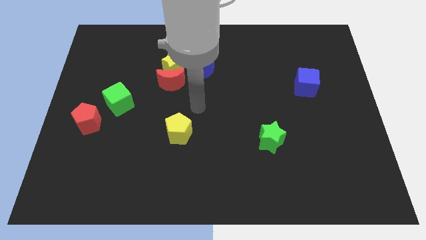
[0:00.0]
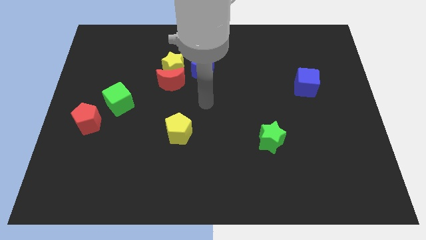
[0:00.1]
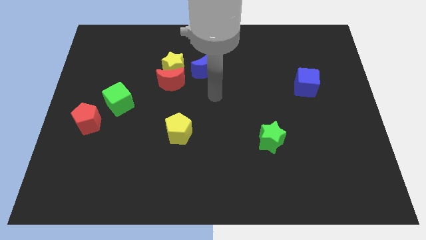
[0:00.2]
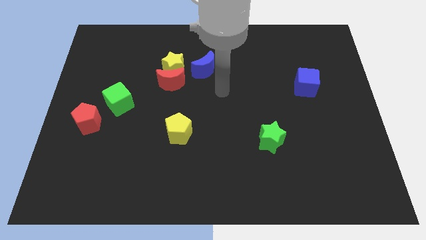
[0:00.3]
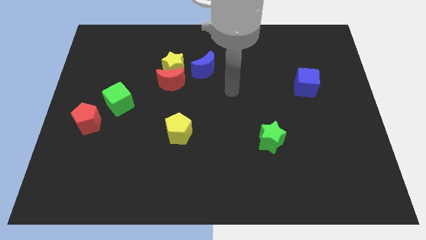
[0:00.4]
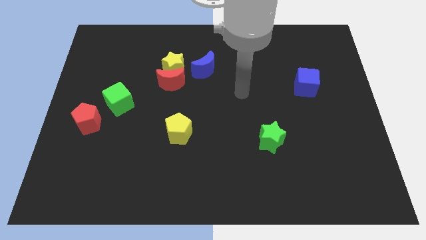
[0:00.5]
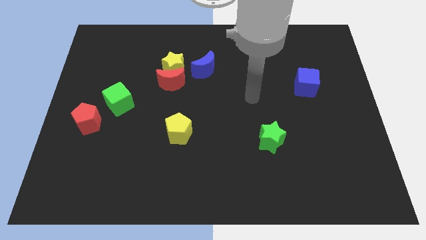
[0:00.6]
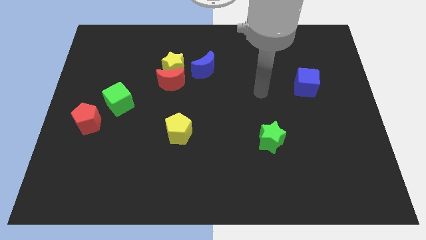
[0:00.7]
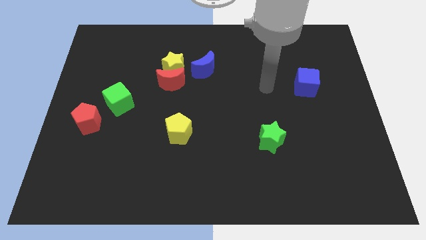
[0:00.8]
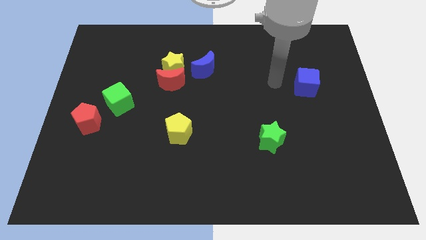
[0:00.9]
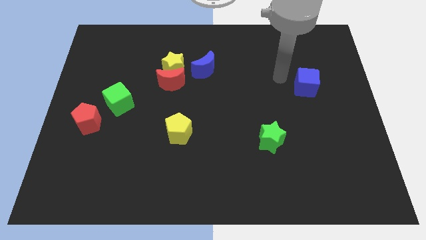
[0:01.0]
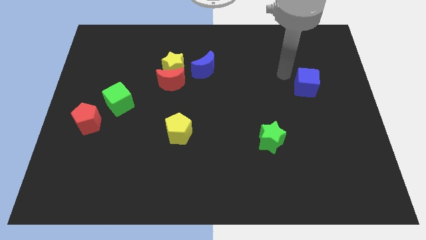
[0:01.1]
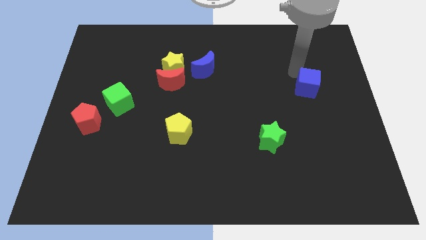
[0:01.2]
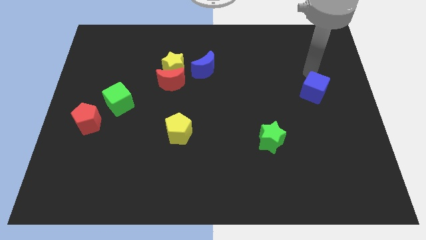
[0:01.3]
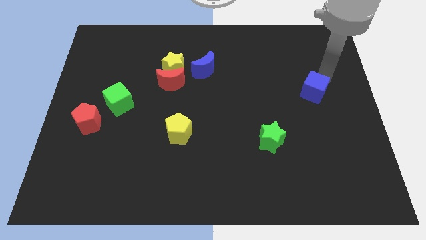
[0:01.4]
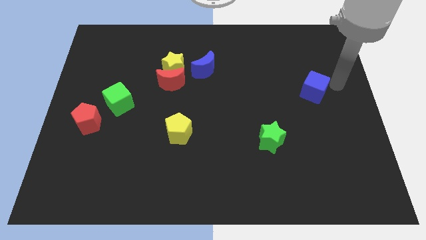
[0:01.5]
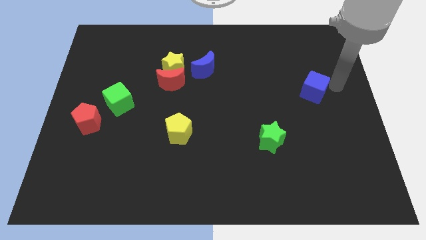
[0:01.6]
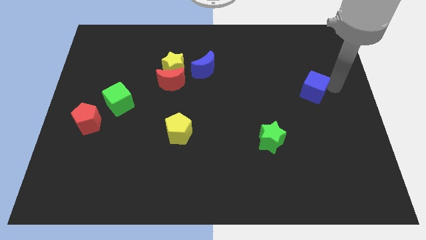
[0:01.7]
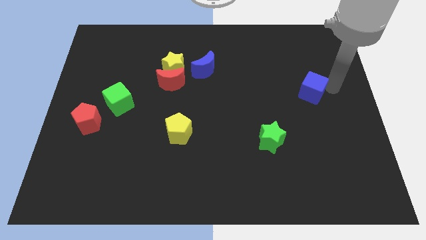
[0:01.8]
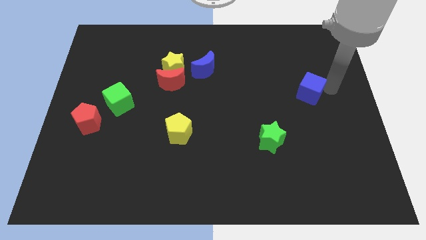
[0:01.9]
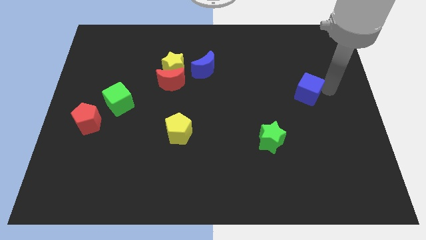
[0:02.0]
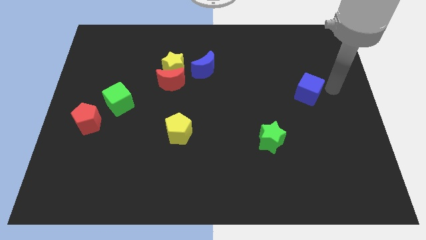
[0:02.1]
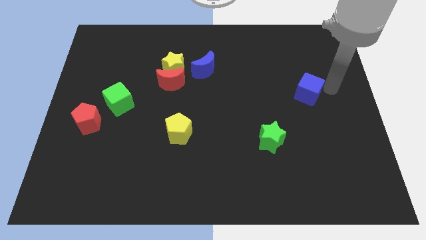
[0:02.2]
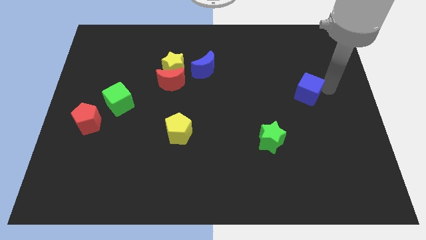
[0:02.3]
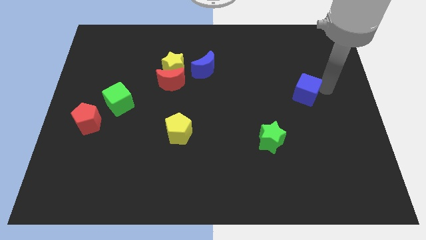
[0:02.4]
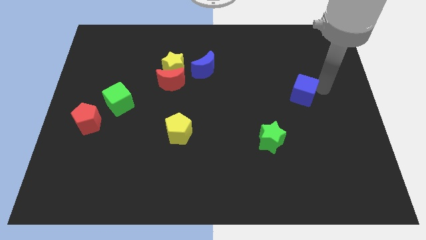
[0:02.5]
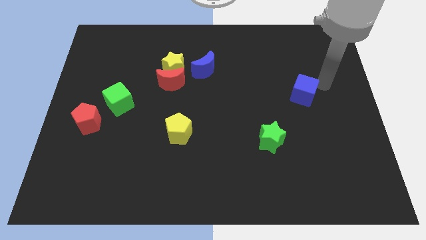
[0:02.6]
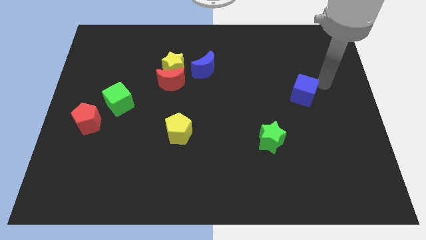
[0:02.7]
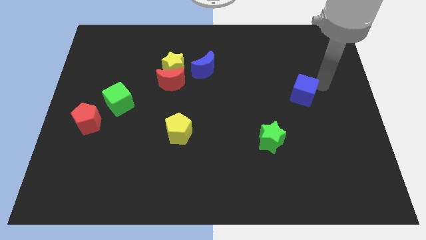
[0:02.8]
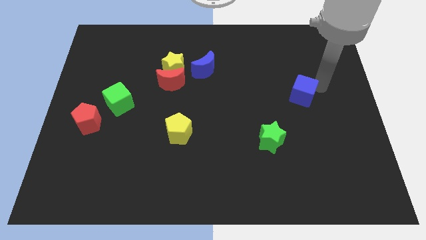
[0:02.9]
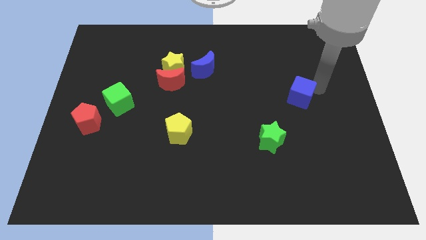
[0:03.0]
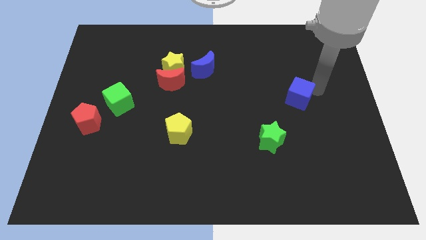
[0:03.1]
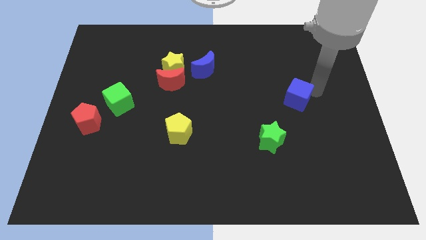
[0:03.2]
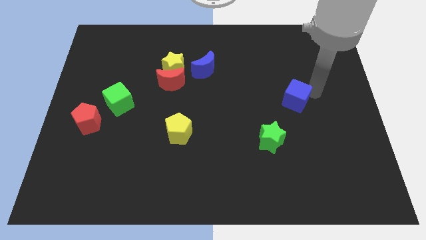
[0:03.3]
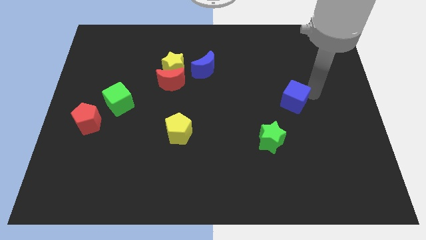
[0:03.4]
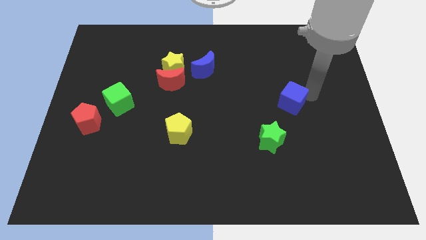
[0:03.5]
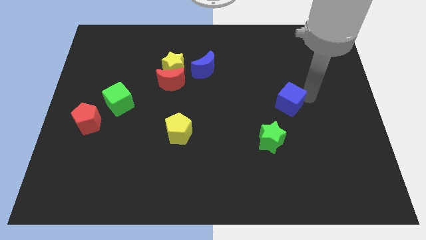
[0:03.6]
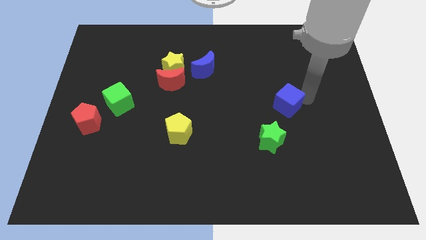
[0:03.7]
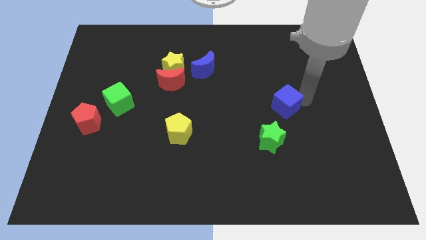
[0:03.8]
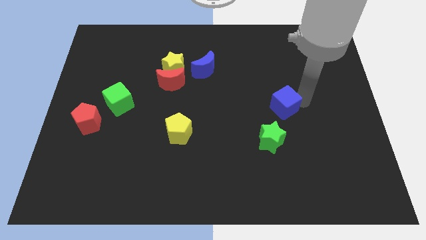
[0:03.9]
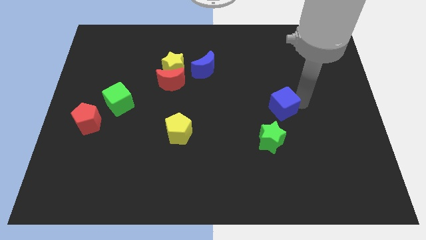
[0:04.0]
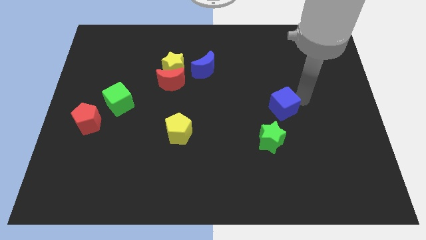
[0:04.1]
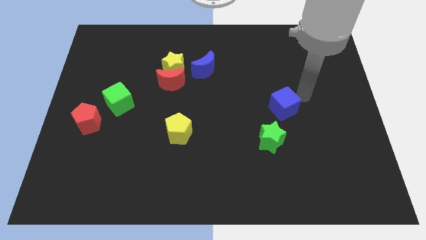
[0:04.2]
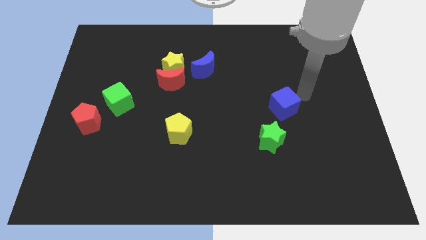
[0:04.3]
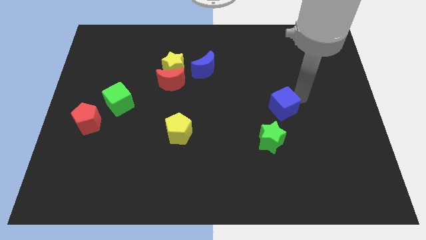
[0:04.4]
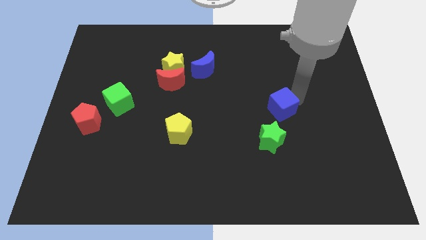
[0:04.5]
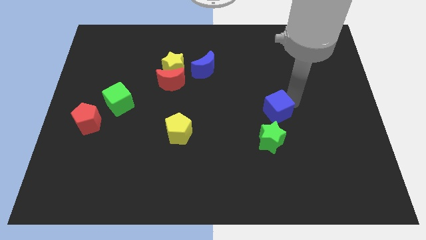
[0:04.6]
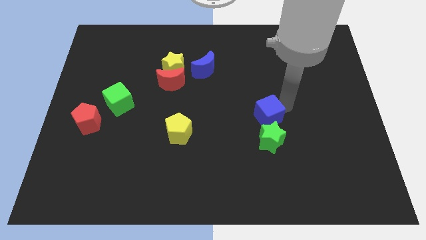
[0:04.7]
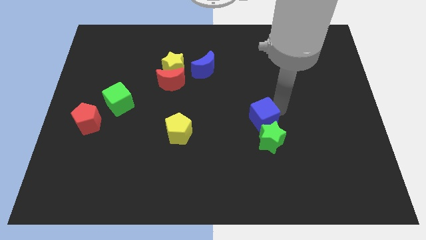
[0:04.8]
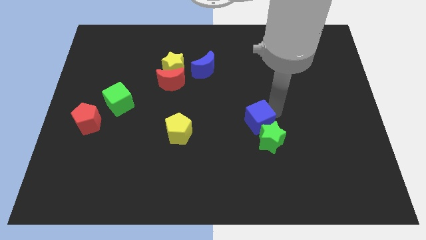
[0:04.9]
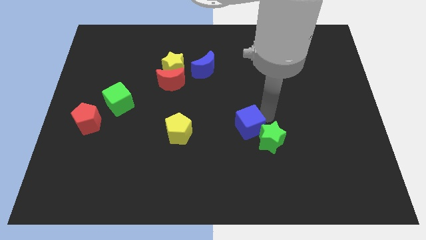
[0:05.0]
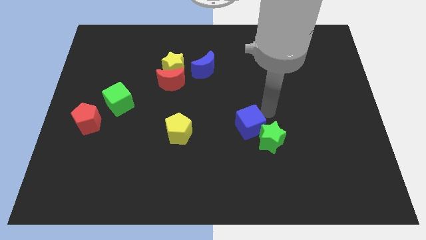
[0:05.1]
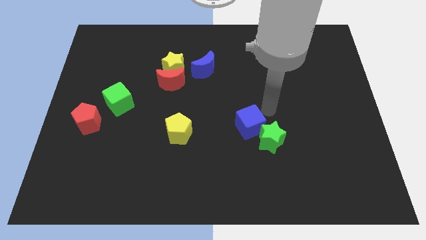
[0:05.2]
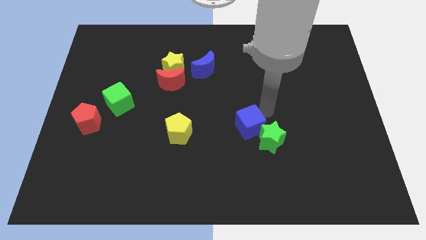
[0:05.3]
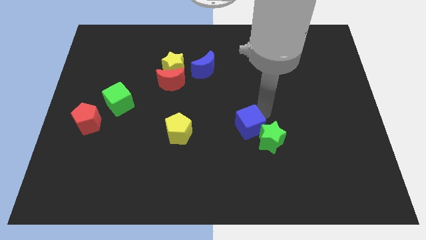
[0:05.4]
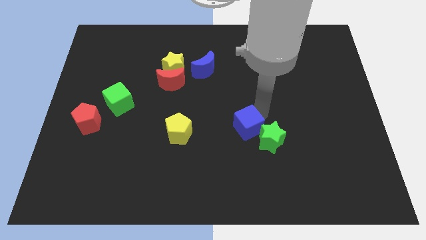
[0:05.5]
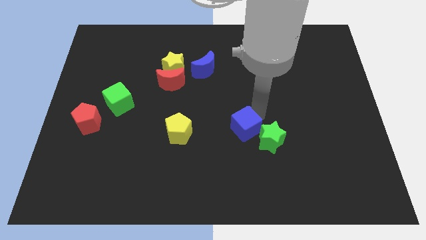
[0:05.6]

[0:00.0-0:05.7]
push the blue cube diagonally down and to the left

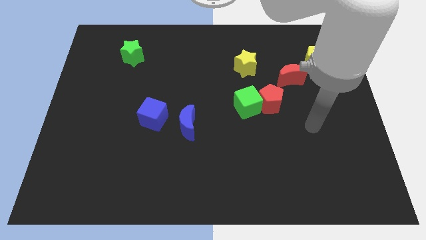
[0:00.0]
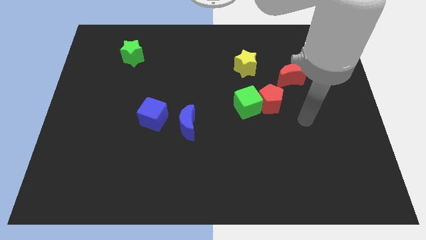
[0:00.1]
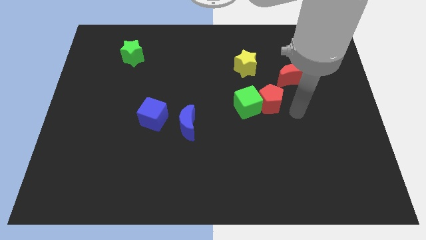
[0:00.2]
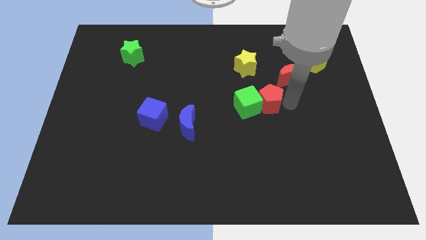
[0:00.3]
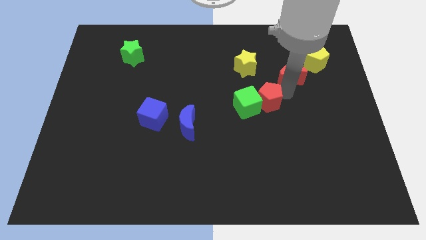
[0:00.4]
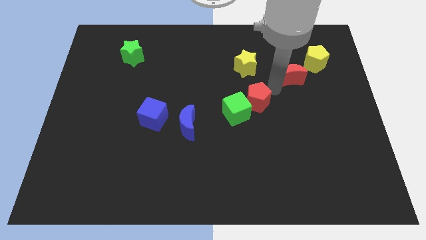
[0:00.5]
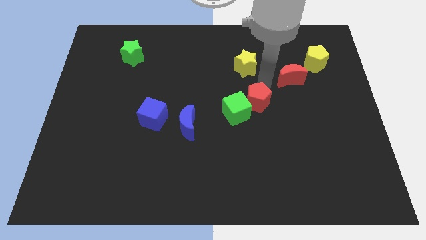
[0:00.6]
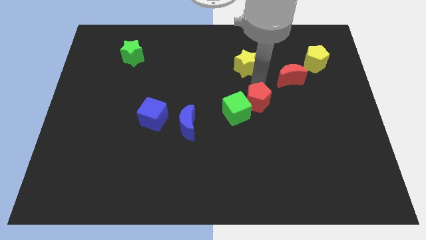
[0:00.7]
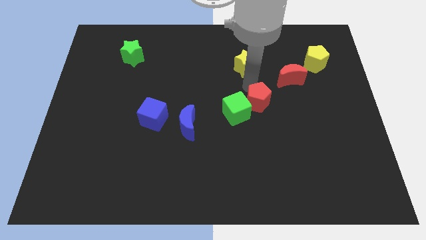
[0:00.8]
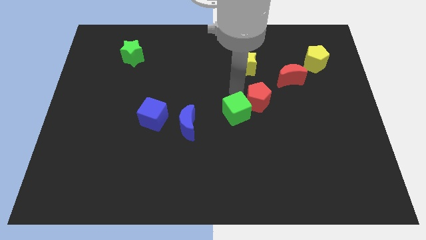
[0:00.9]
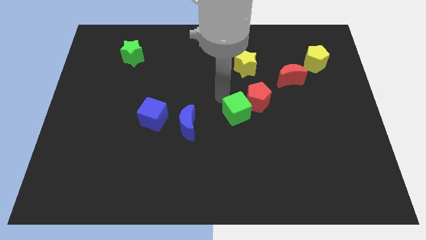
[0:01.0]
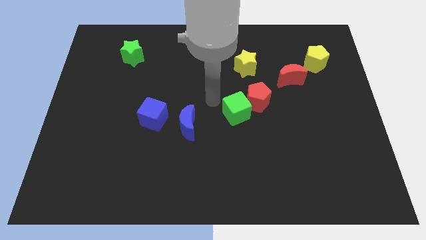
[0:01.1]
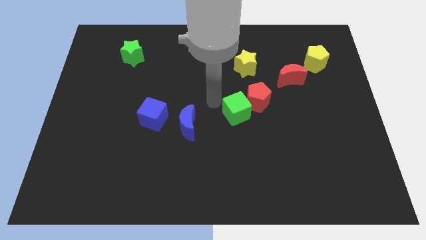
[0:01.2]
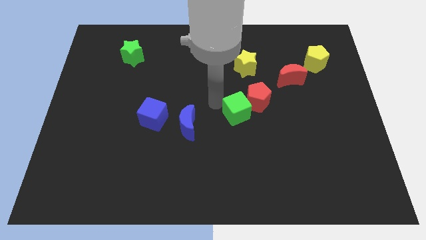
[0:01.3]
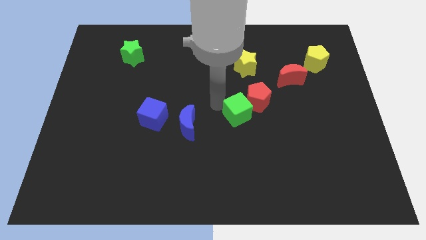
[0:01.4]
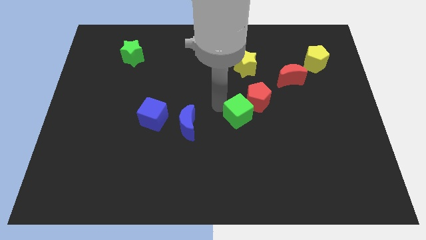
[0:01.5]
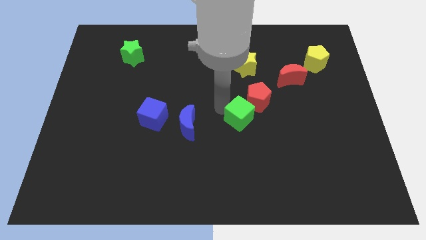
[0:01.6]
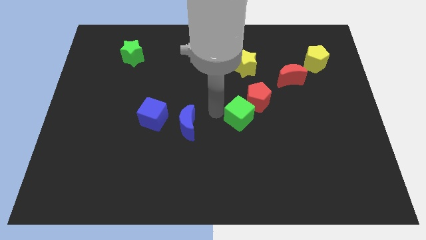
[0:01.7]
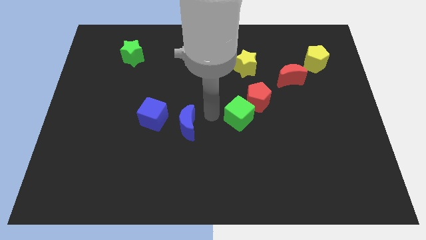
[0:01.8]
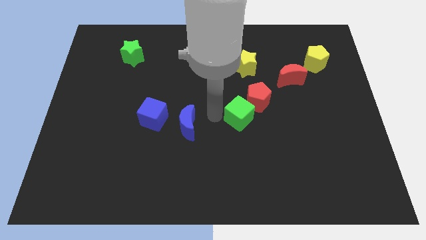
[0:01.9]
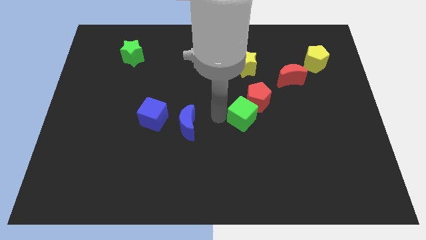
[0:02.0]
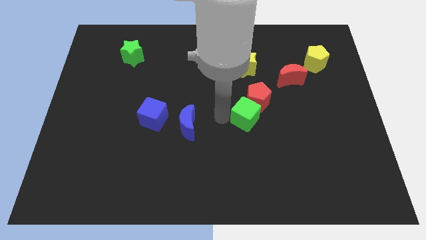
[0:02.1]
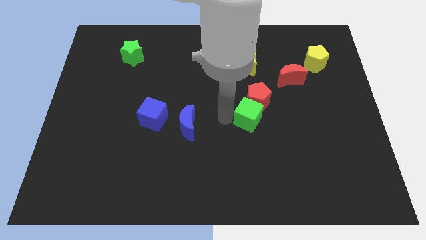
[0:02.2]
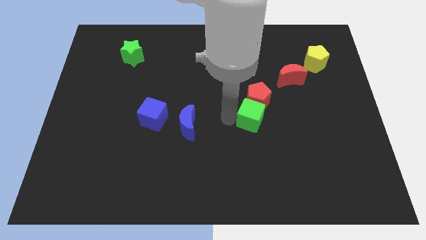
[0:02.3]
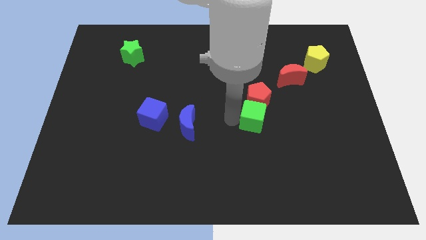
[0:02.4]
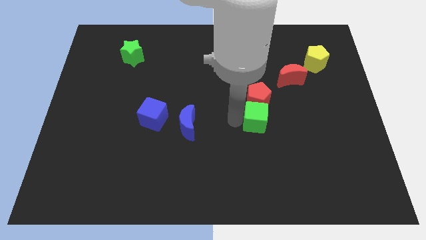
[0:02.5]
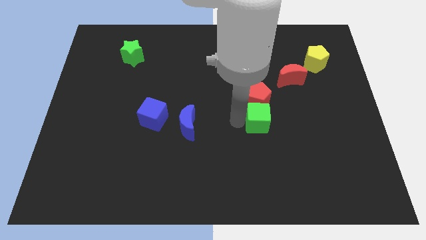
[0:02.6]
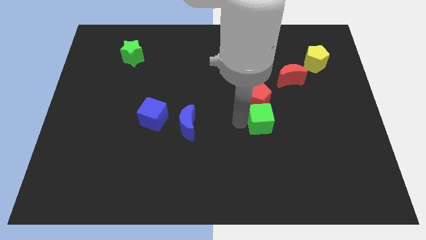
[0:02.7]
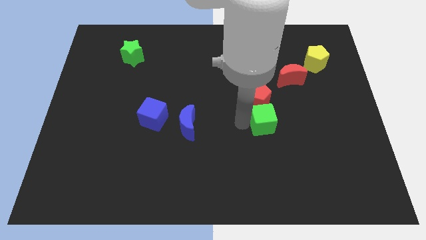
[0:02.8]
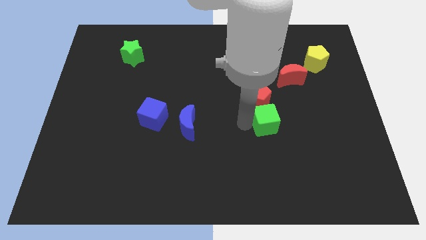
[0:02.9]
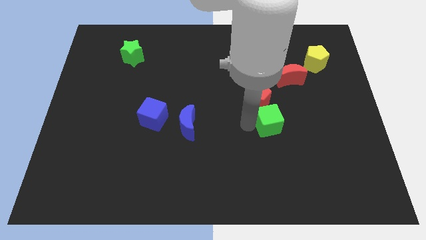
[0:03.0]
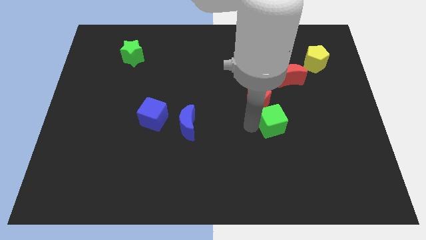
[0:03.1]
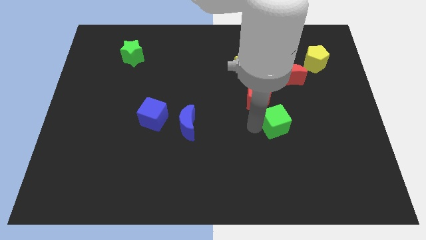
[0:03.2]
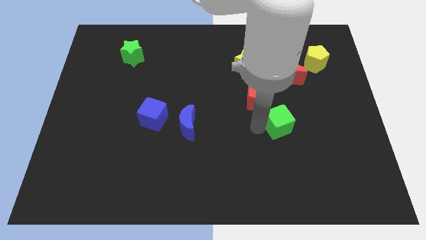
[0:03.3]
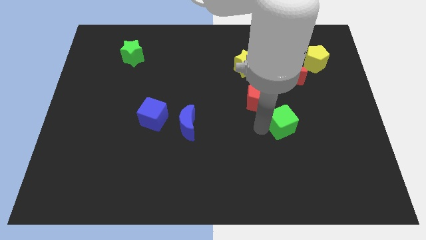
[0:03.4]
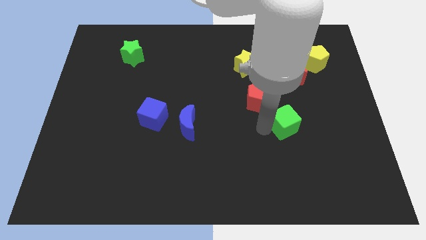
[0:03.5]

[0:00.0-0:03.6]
move the green cube to the right a bit
